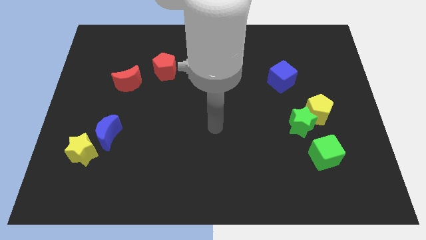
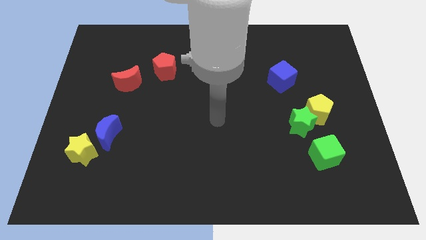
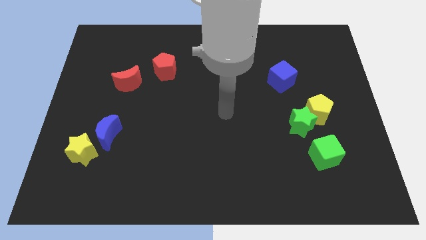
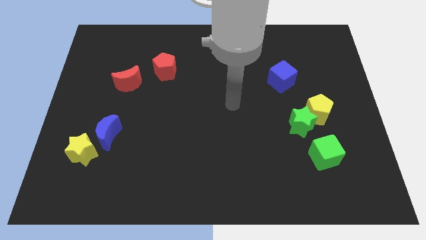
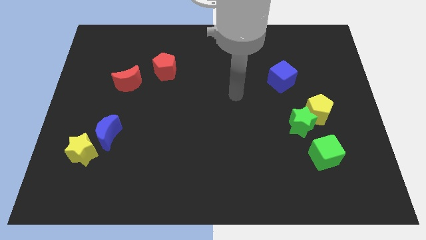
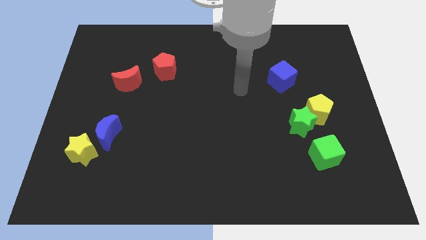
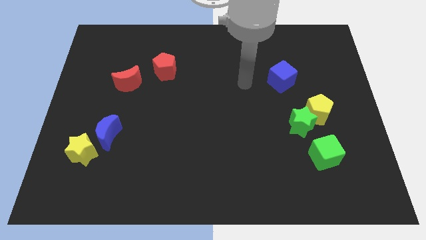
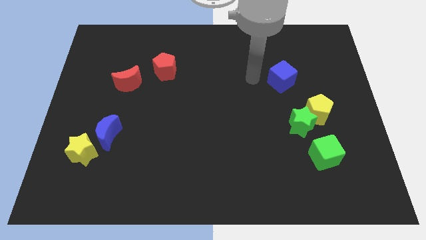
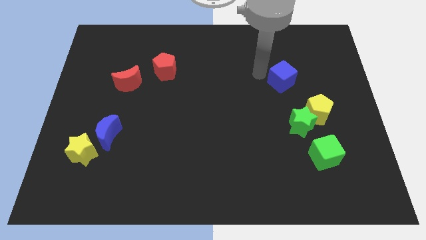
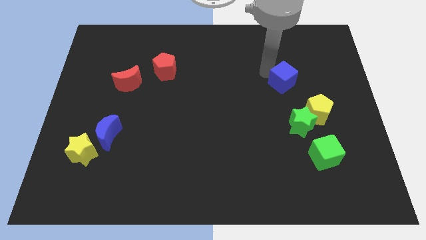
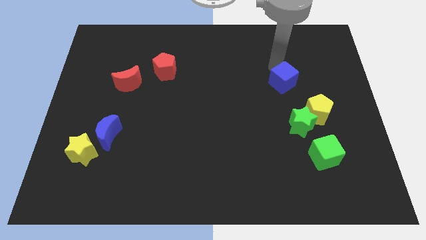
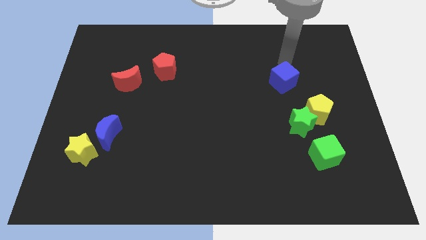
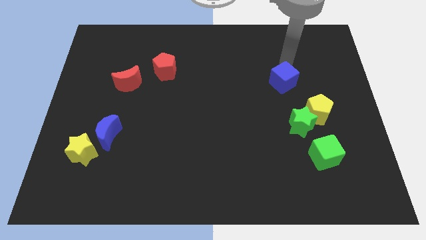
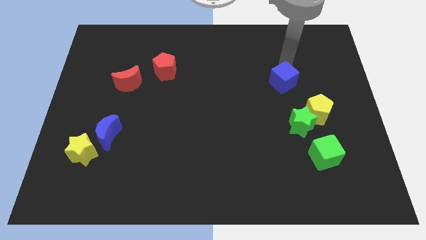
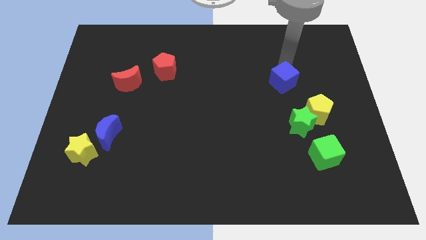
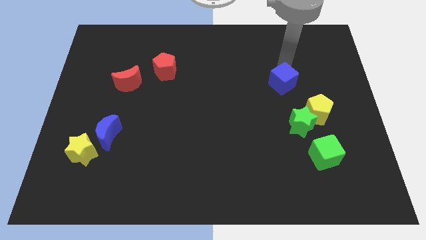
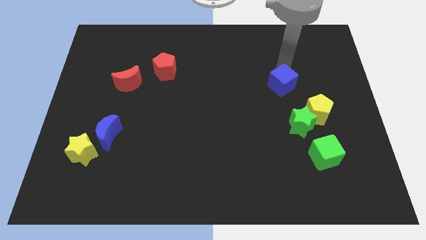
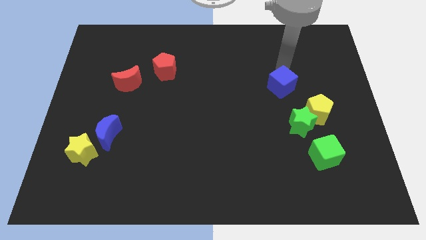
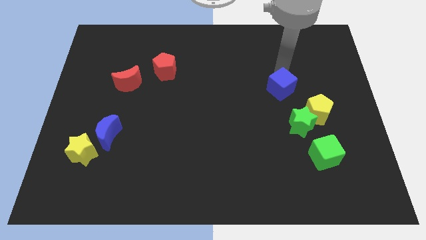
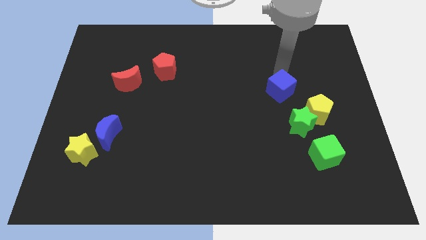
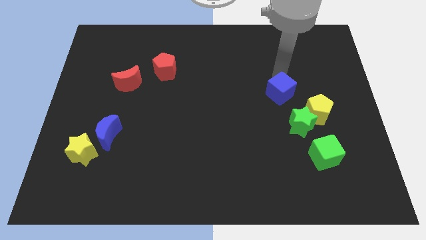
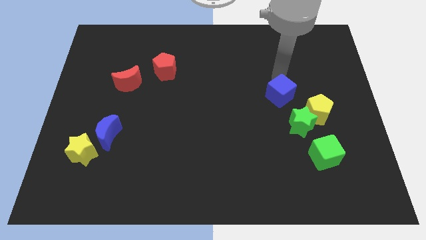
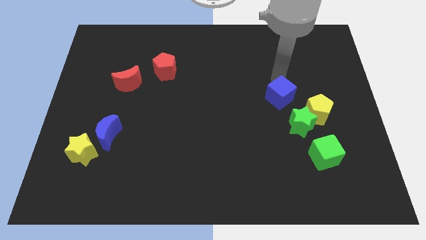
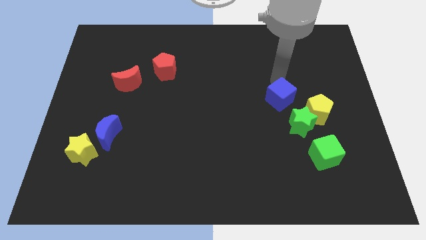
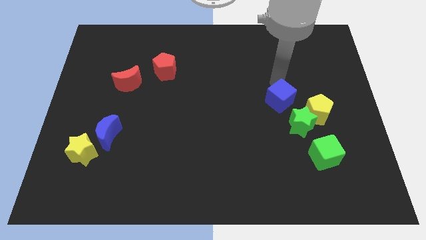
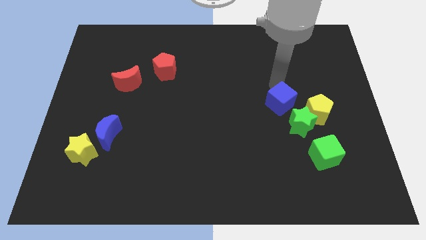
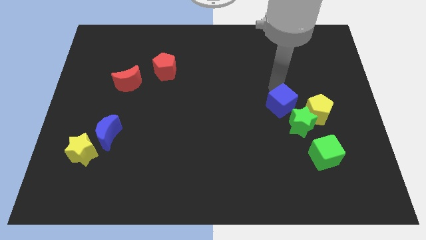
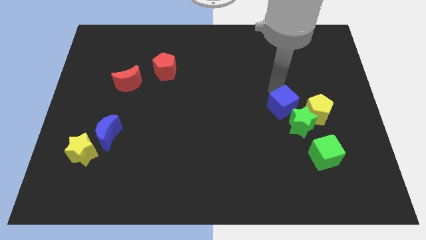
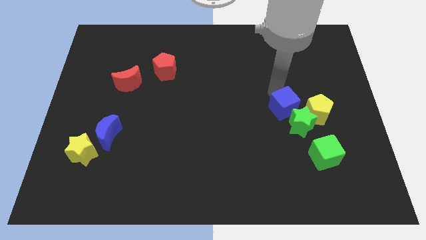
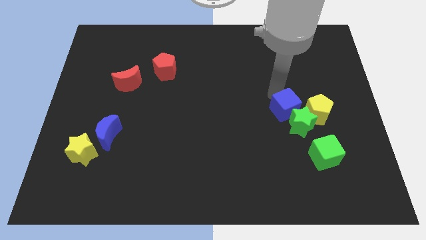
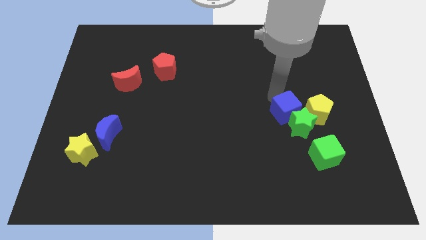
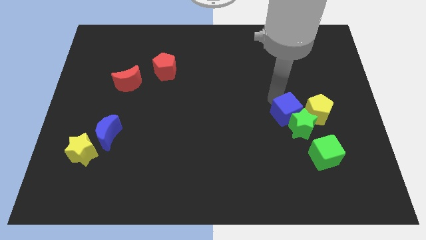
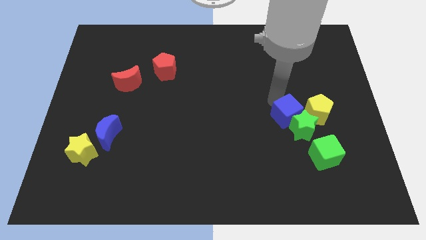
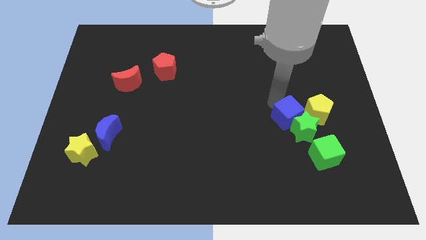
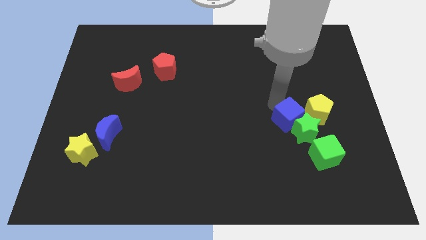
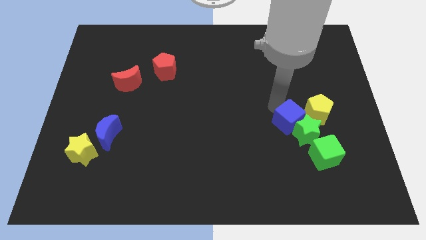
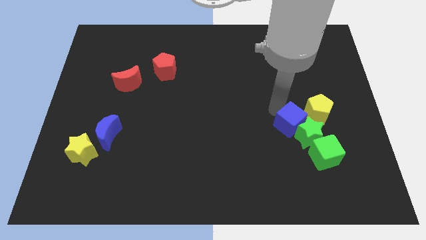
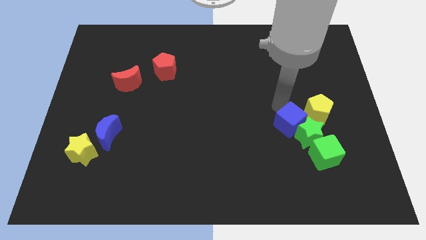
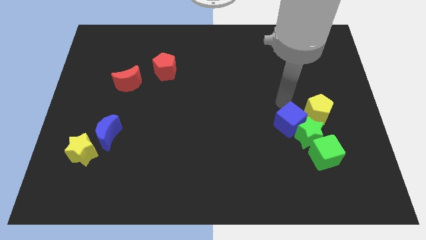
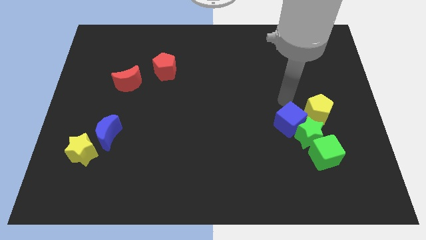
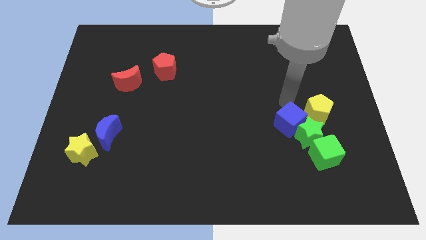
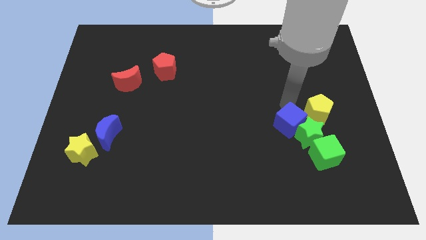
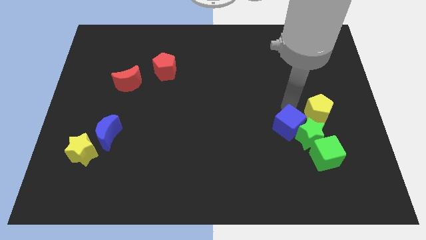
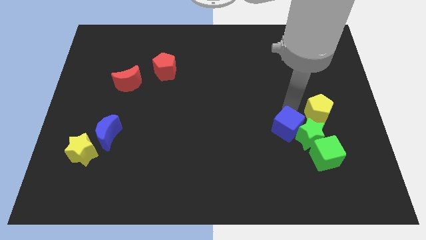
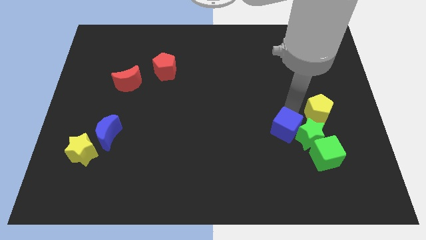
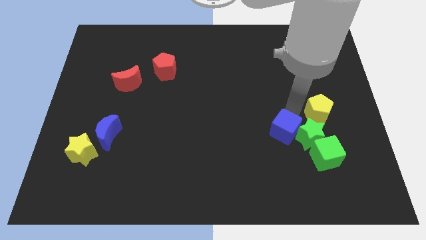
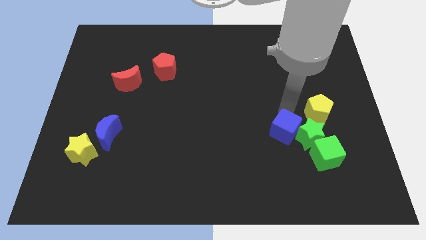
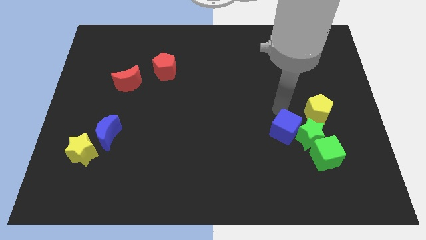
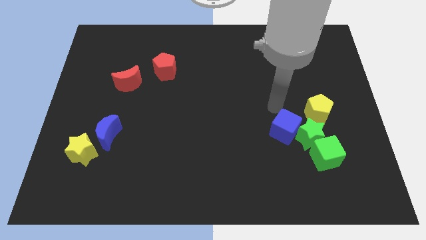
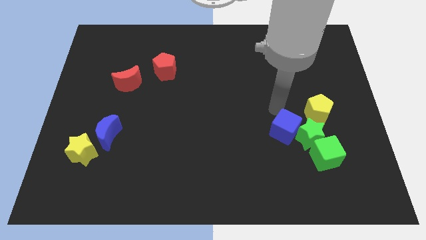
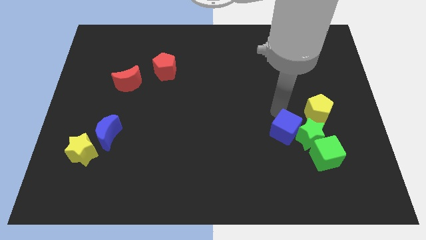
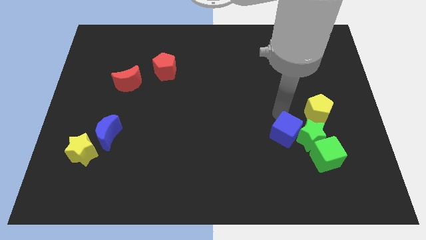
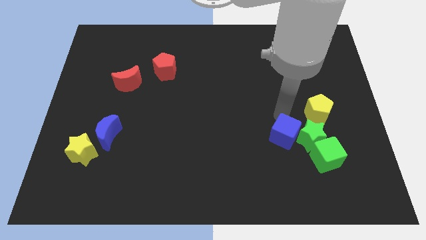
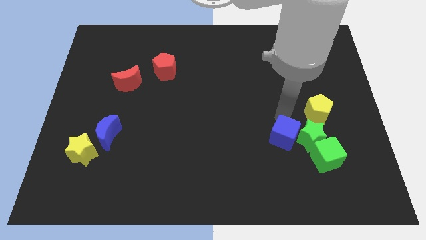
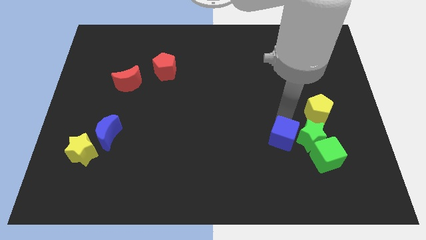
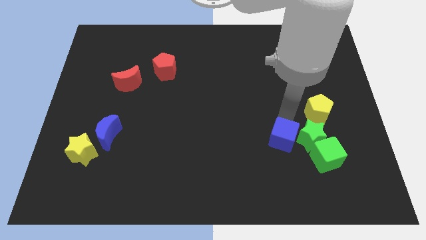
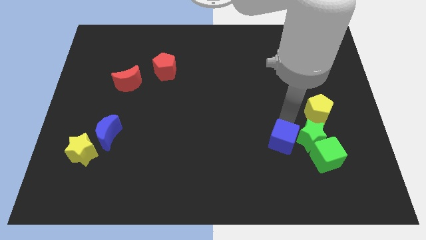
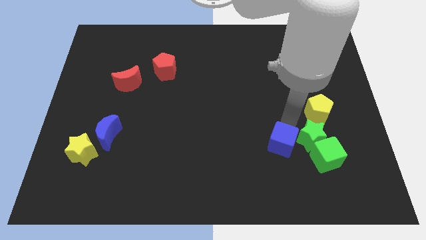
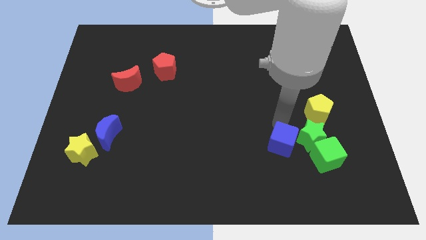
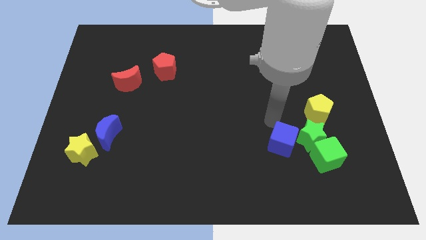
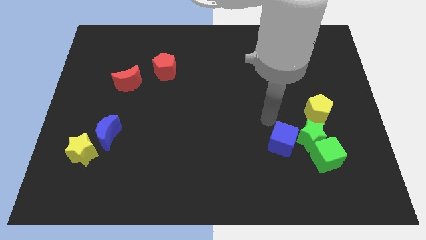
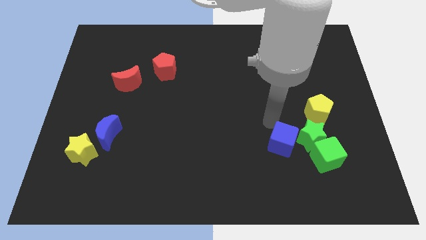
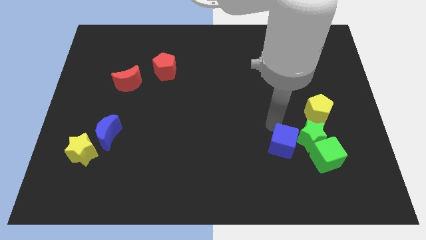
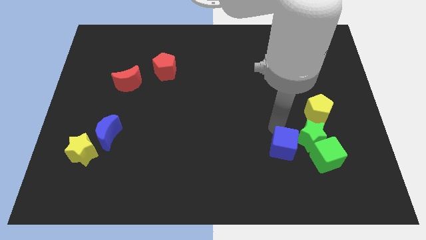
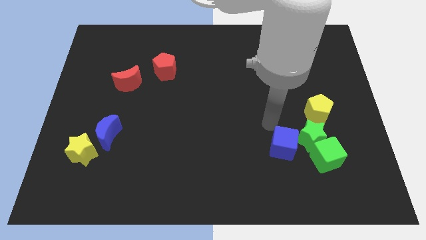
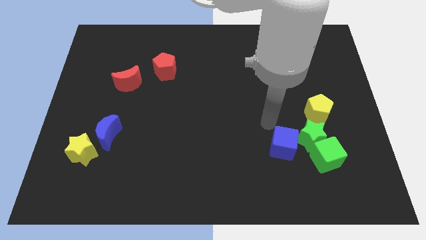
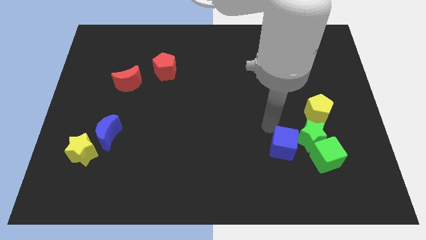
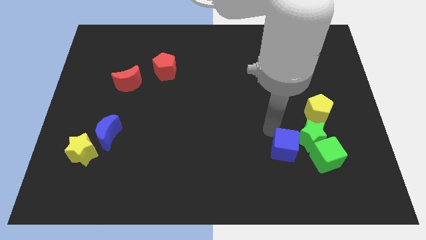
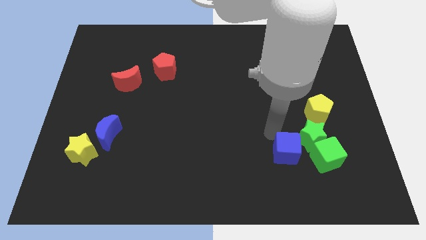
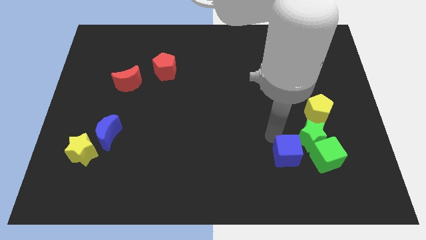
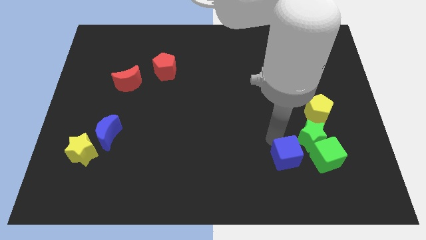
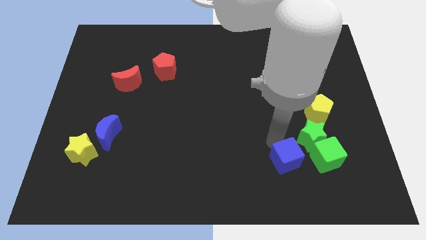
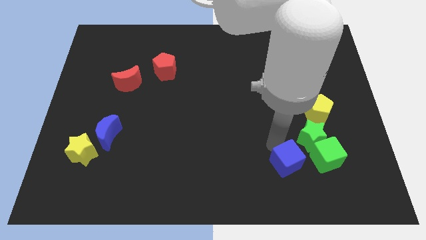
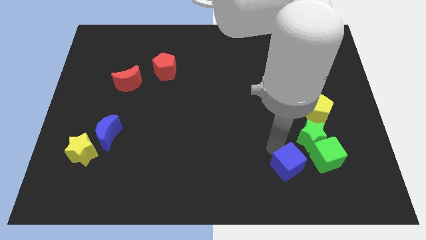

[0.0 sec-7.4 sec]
move the blue cube diagonally down and to the left of the green cube

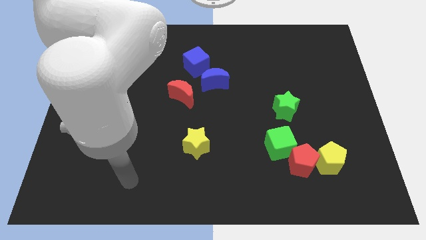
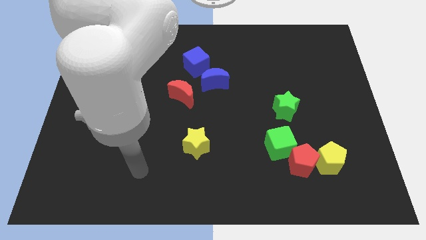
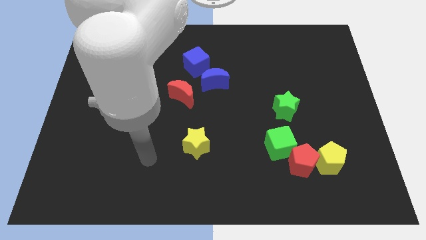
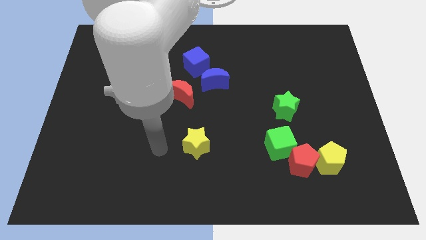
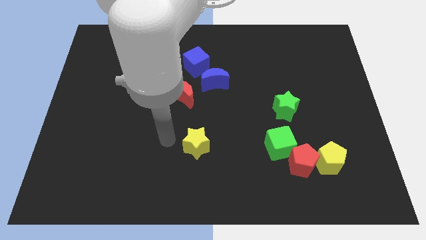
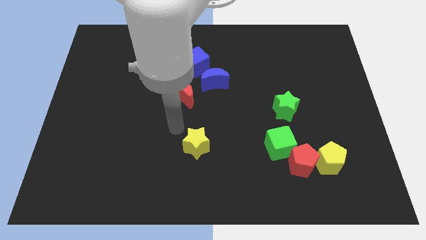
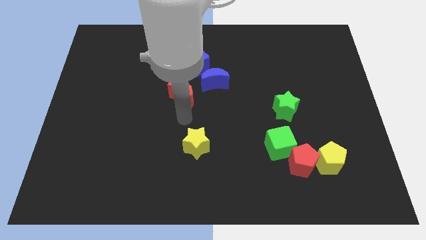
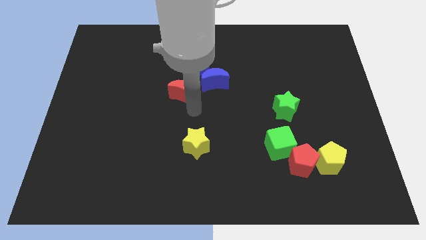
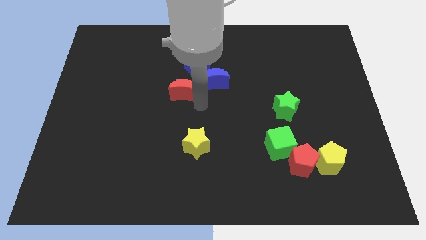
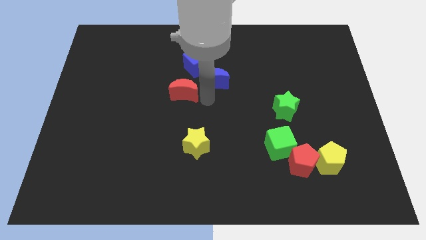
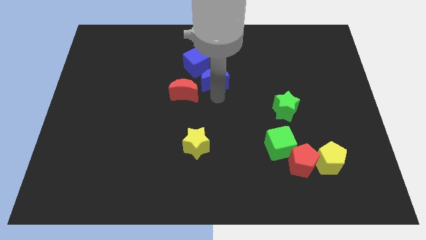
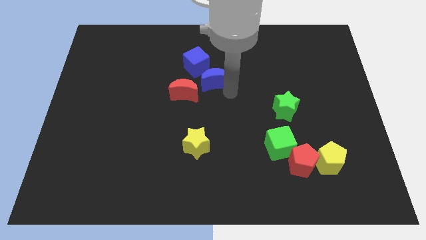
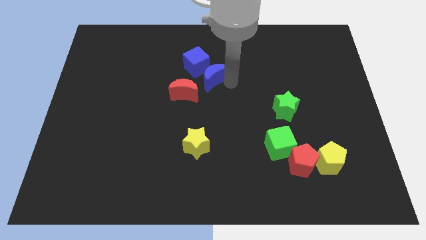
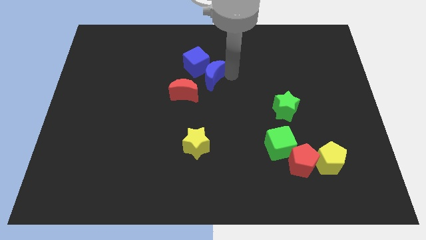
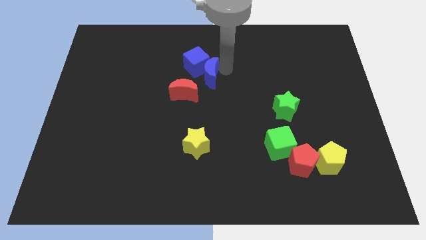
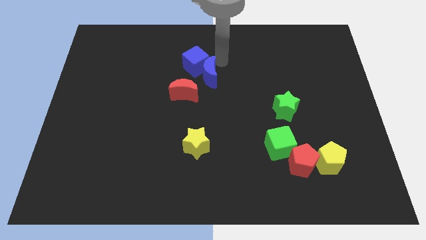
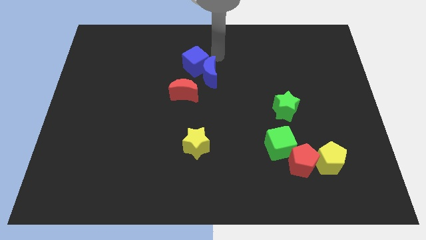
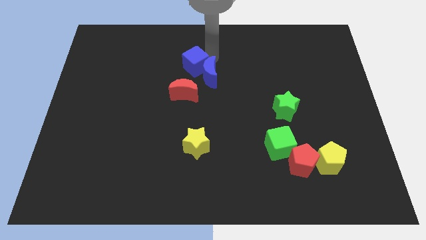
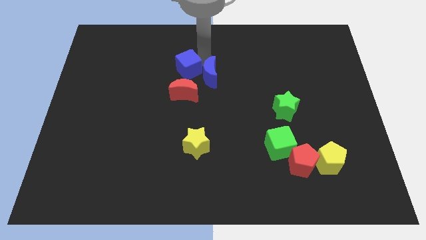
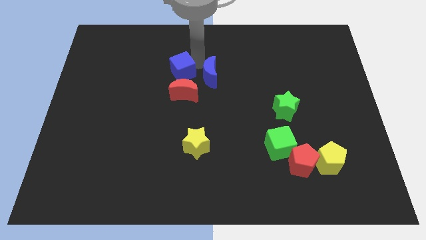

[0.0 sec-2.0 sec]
move the blue cube to the top left of the red moon
